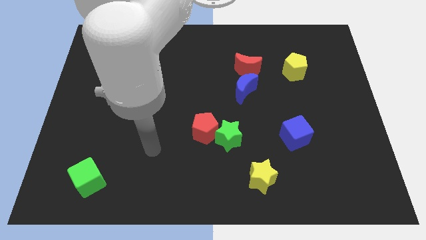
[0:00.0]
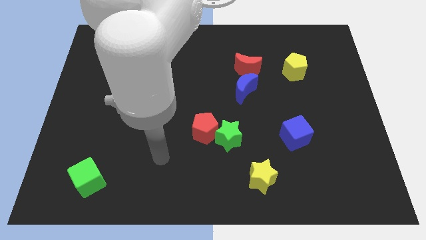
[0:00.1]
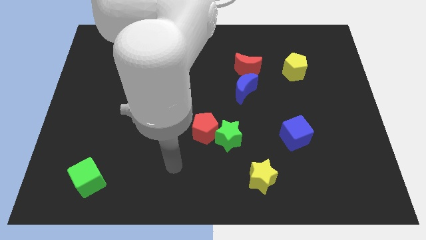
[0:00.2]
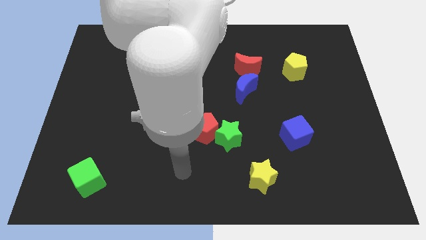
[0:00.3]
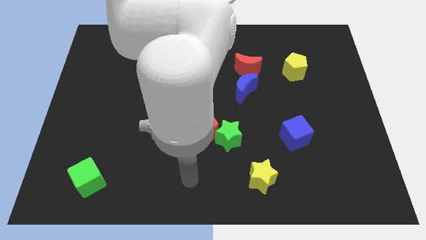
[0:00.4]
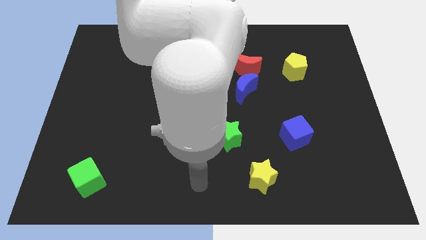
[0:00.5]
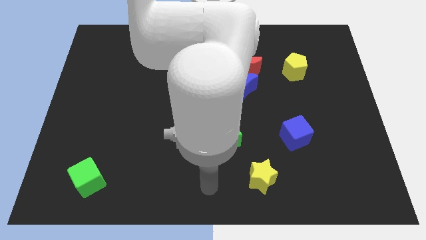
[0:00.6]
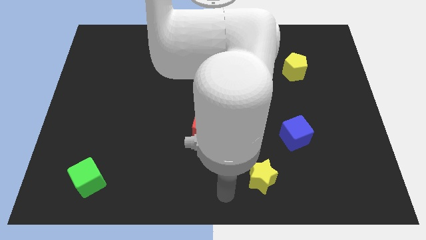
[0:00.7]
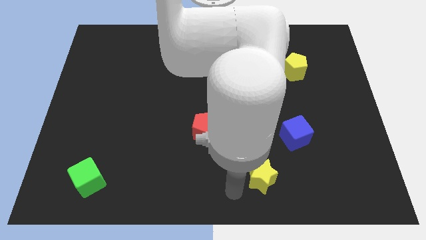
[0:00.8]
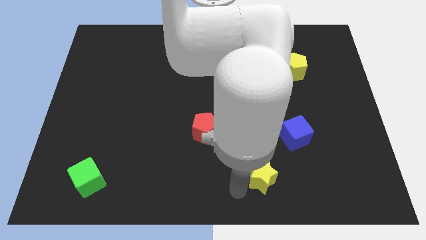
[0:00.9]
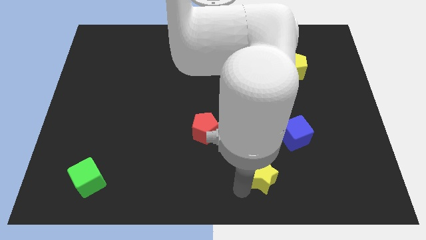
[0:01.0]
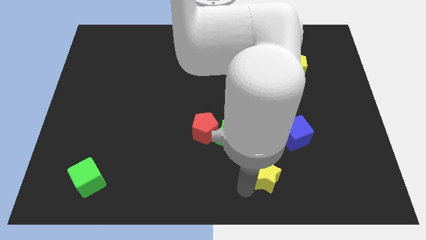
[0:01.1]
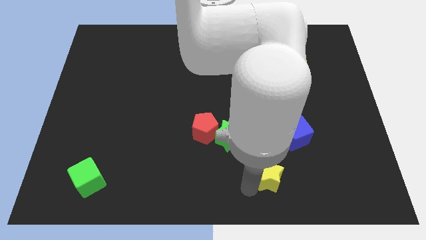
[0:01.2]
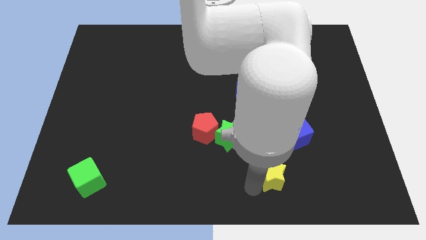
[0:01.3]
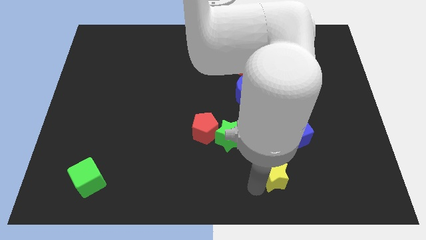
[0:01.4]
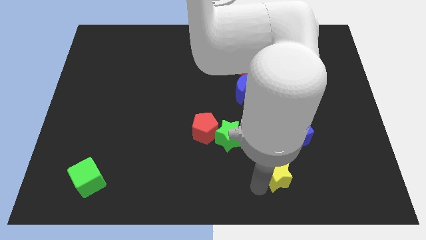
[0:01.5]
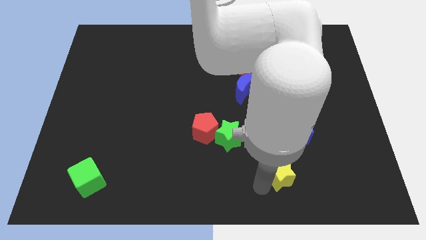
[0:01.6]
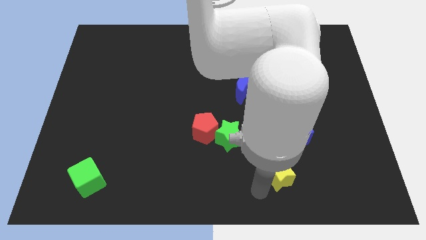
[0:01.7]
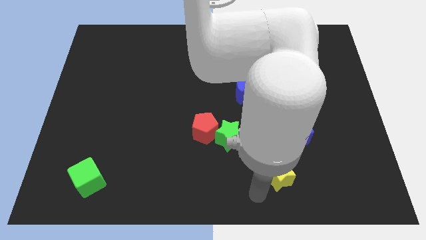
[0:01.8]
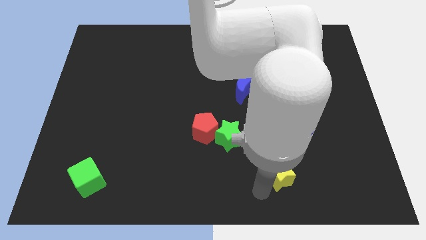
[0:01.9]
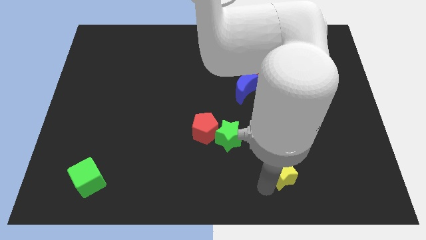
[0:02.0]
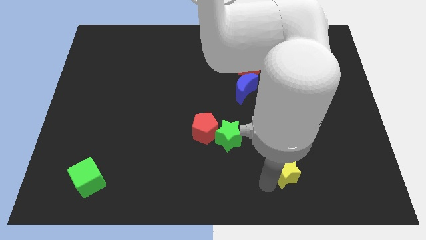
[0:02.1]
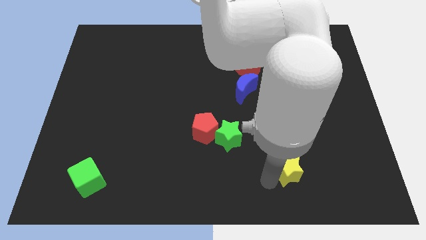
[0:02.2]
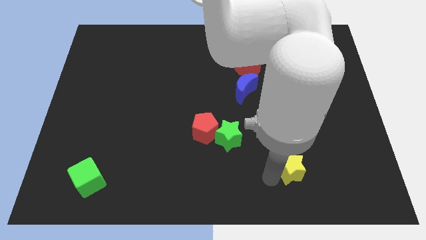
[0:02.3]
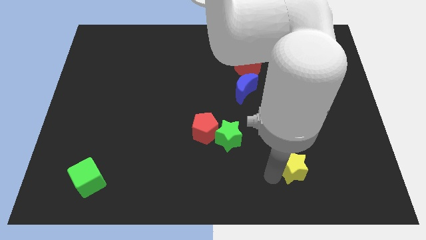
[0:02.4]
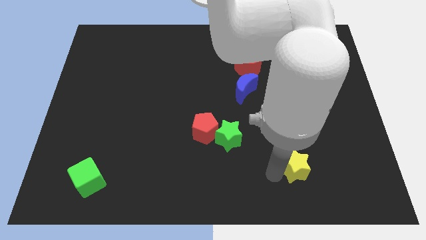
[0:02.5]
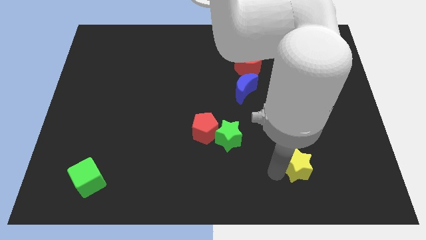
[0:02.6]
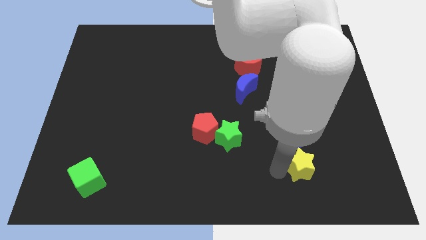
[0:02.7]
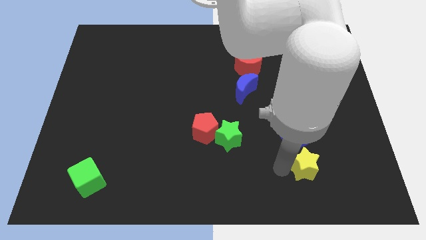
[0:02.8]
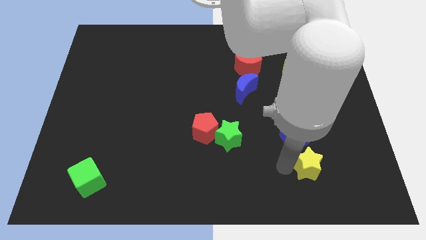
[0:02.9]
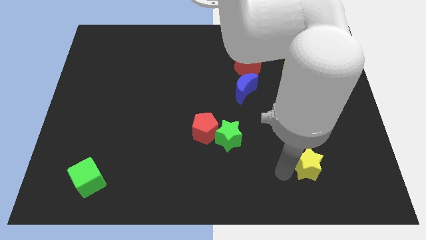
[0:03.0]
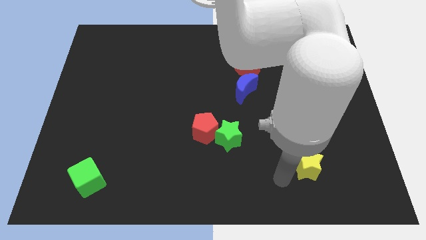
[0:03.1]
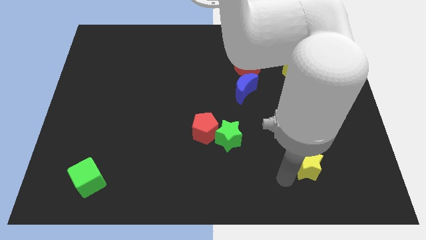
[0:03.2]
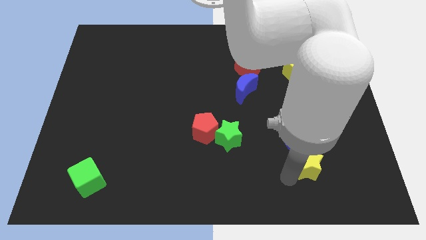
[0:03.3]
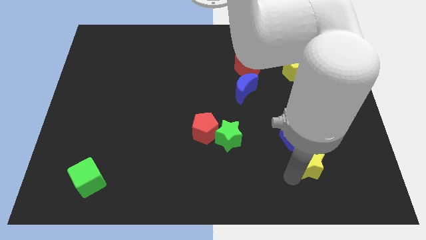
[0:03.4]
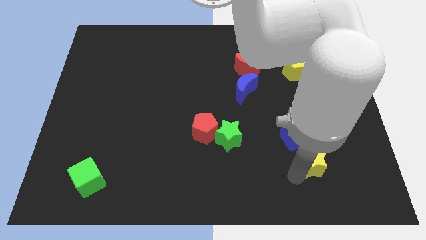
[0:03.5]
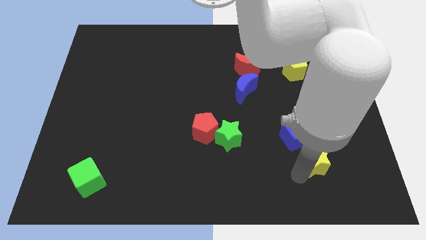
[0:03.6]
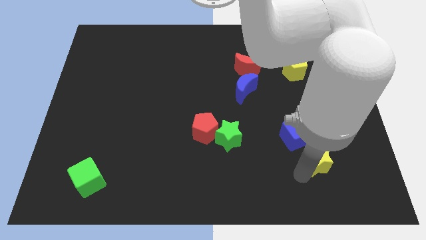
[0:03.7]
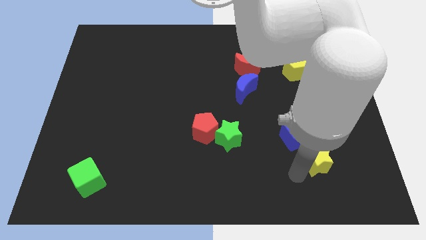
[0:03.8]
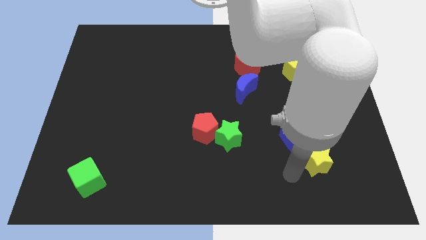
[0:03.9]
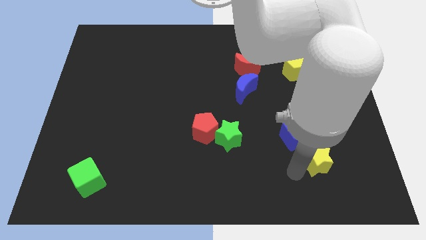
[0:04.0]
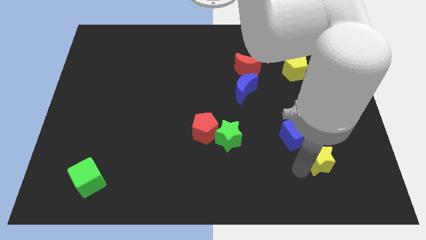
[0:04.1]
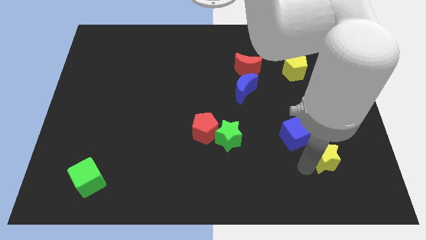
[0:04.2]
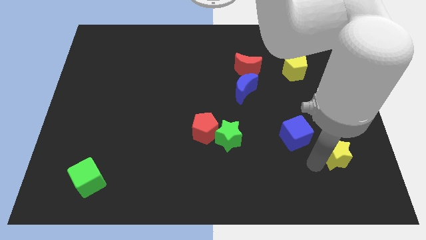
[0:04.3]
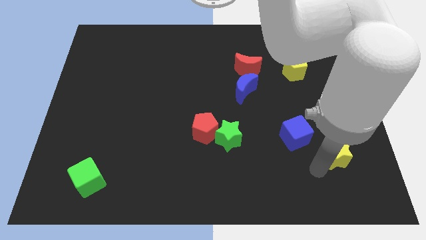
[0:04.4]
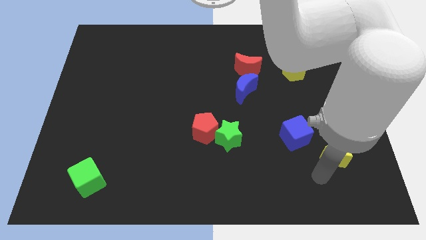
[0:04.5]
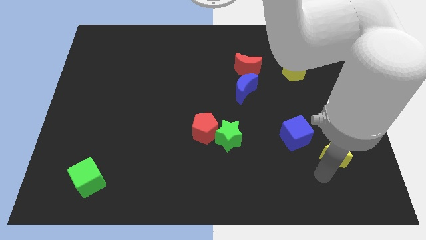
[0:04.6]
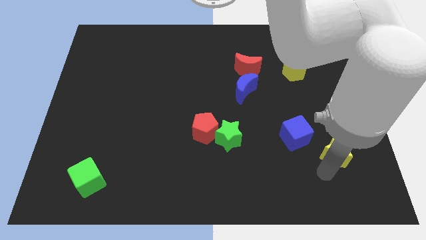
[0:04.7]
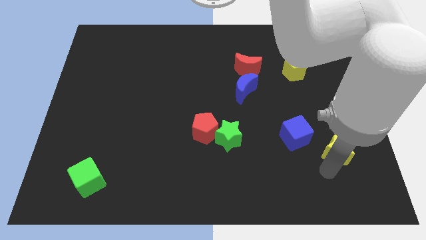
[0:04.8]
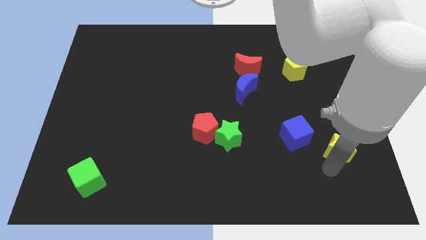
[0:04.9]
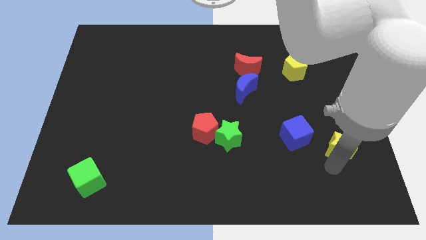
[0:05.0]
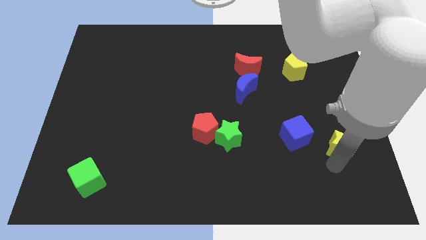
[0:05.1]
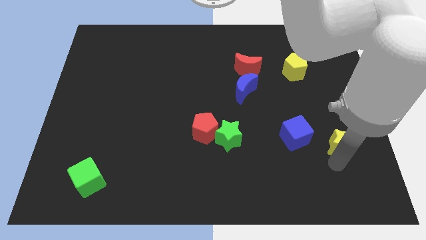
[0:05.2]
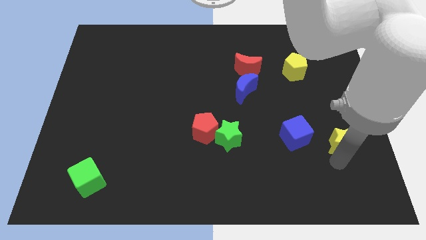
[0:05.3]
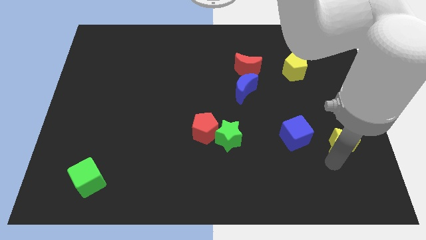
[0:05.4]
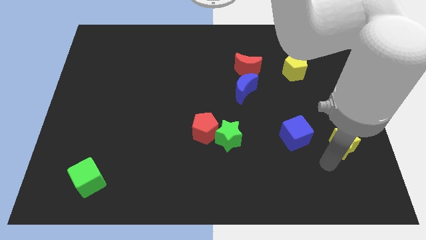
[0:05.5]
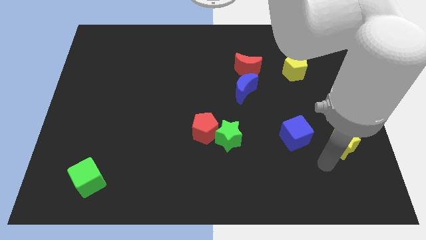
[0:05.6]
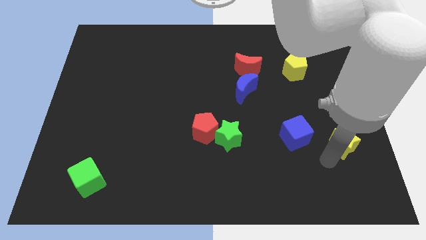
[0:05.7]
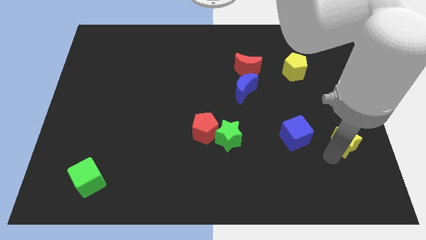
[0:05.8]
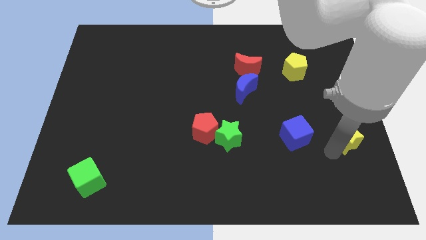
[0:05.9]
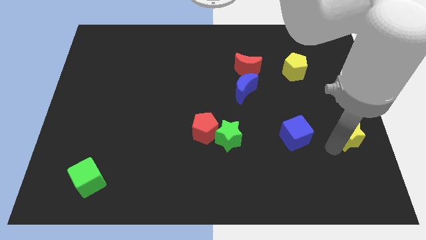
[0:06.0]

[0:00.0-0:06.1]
push the yellow star to the center right

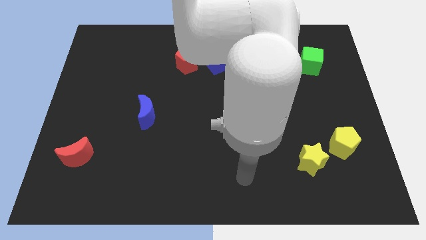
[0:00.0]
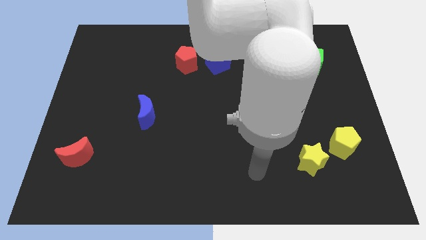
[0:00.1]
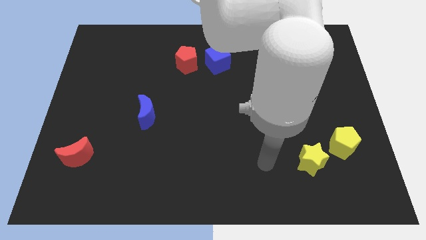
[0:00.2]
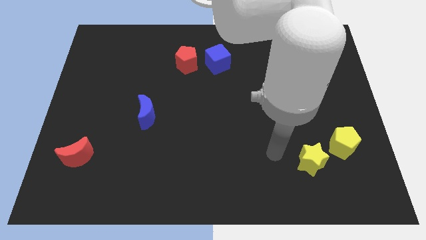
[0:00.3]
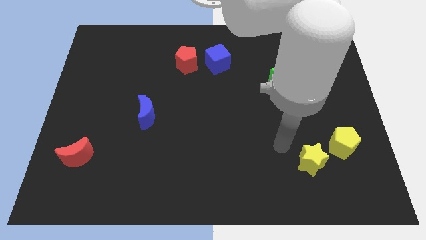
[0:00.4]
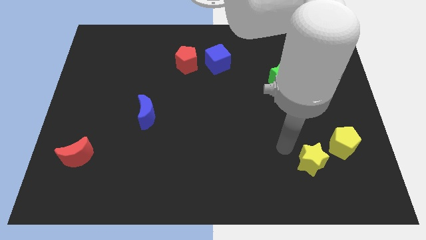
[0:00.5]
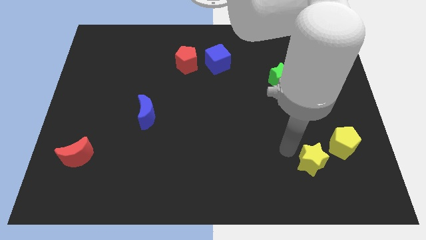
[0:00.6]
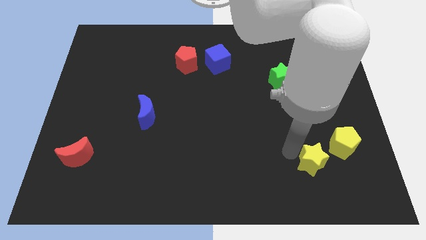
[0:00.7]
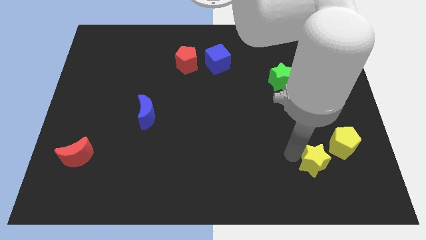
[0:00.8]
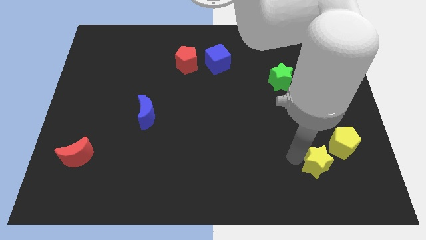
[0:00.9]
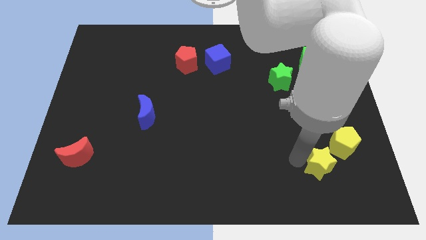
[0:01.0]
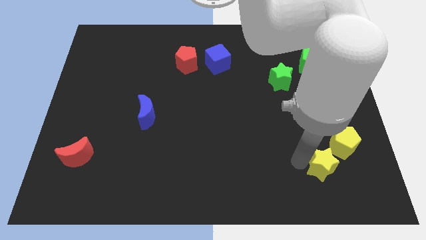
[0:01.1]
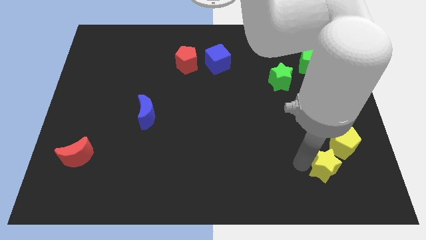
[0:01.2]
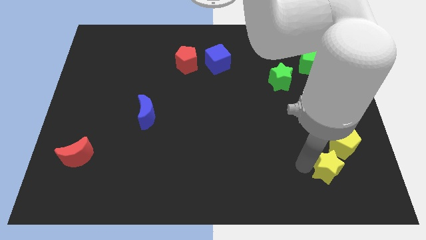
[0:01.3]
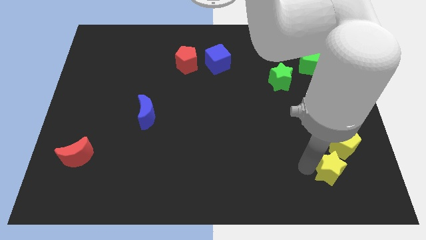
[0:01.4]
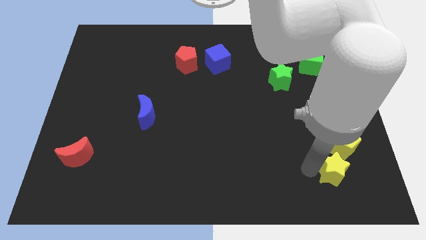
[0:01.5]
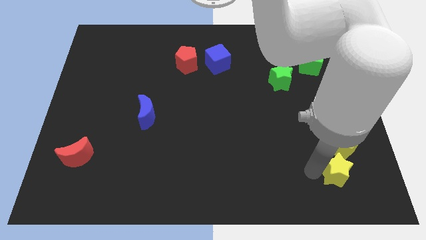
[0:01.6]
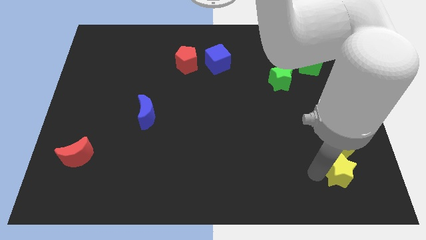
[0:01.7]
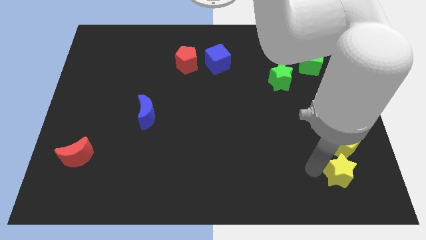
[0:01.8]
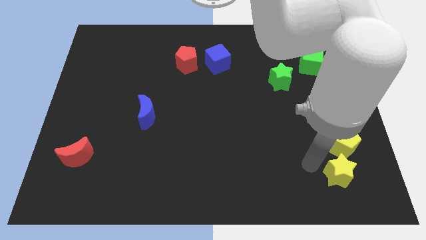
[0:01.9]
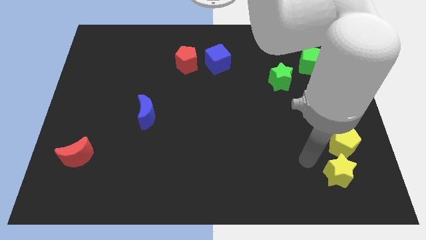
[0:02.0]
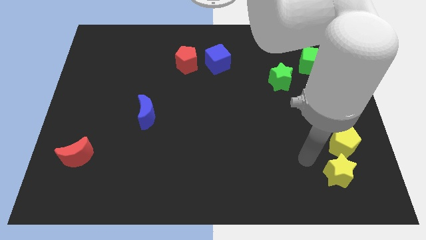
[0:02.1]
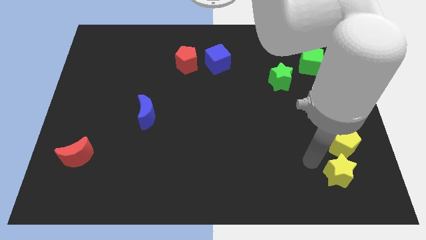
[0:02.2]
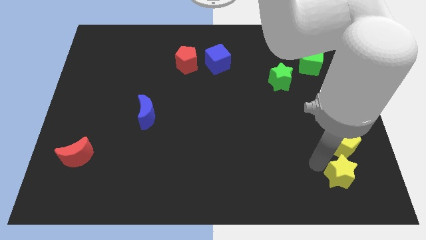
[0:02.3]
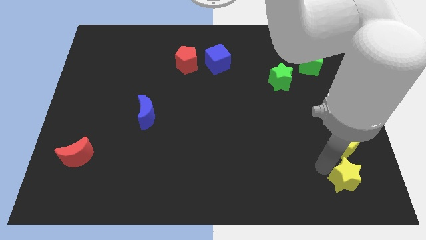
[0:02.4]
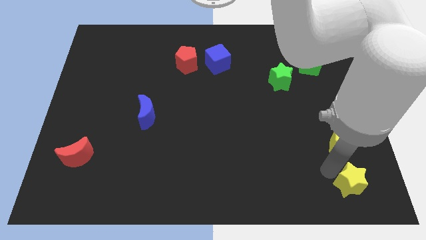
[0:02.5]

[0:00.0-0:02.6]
slide the yellow star to the bottom right corner
